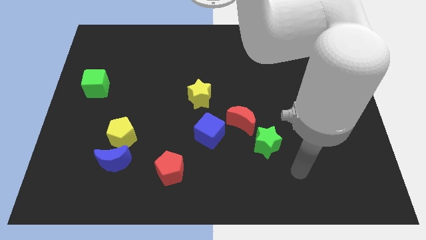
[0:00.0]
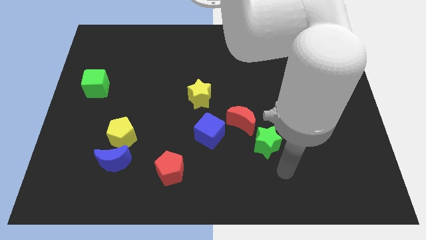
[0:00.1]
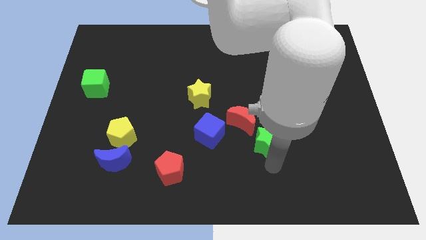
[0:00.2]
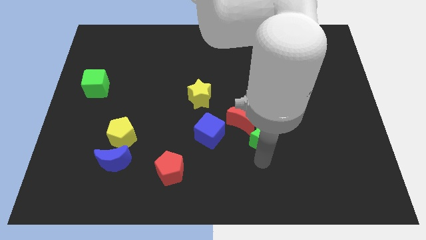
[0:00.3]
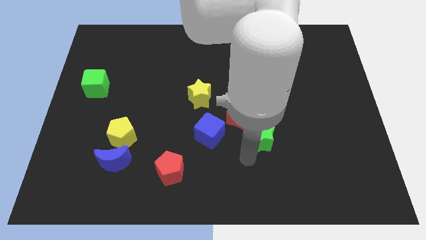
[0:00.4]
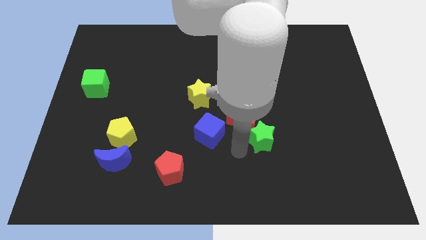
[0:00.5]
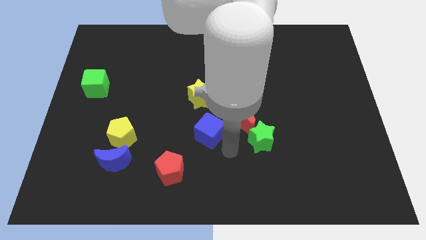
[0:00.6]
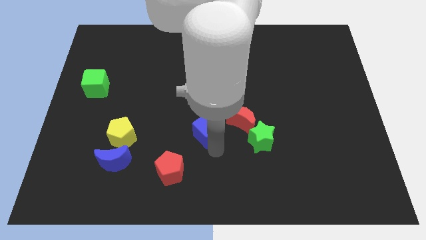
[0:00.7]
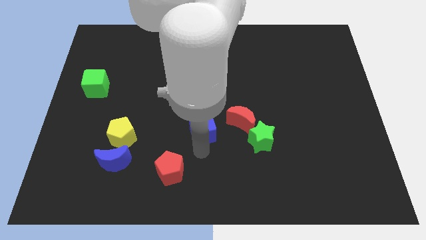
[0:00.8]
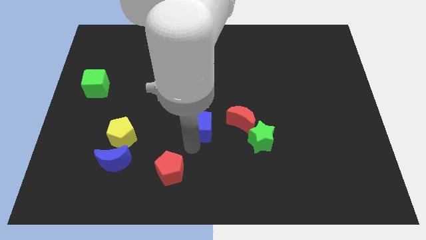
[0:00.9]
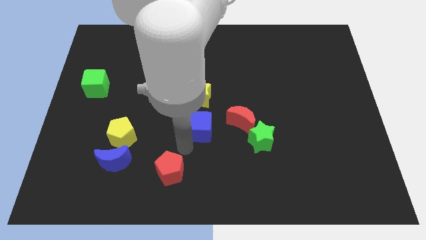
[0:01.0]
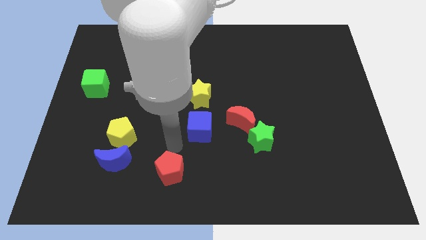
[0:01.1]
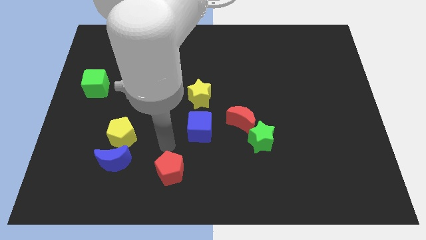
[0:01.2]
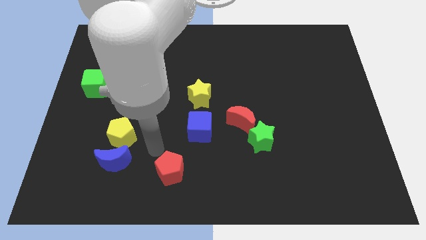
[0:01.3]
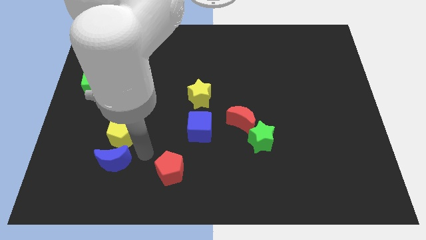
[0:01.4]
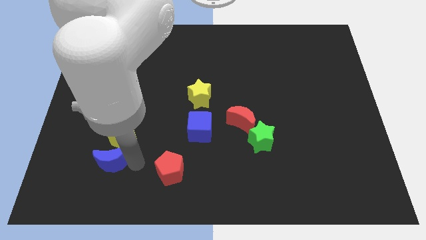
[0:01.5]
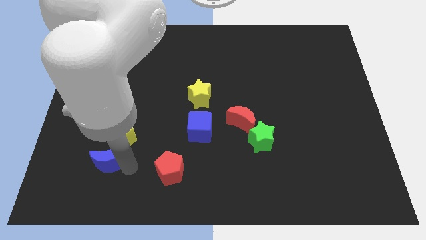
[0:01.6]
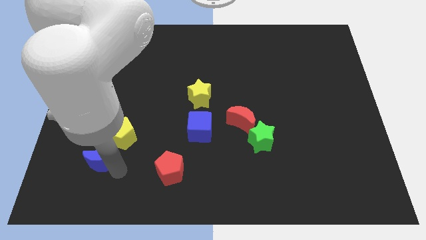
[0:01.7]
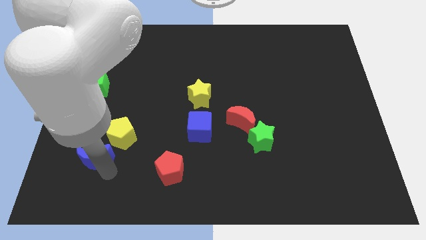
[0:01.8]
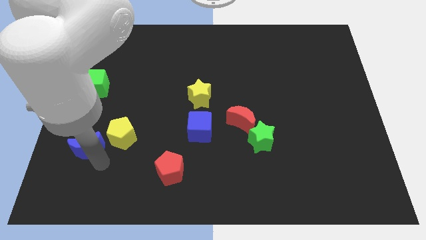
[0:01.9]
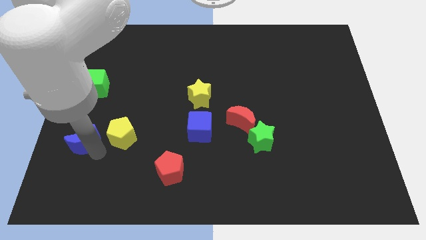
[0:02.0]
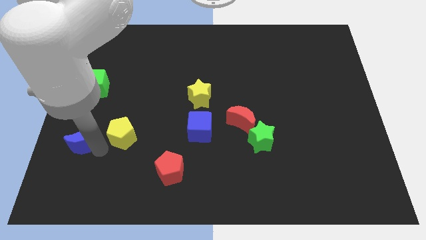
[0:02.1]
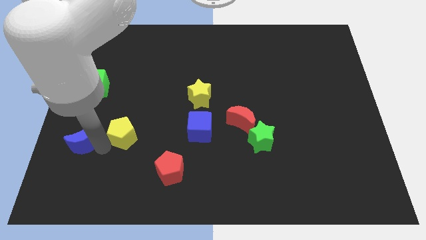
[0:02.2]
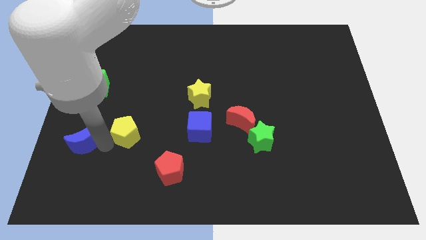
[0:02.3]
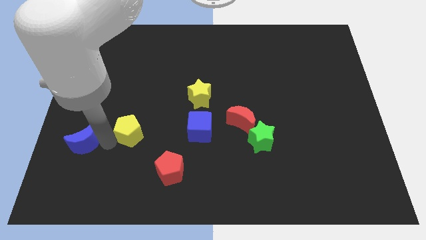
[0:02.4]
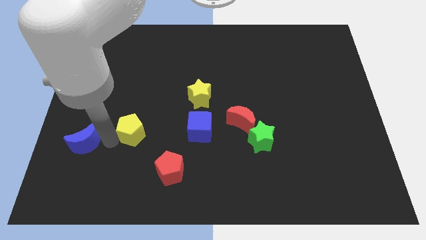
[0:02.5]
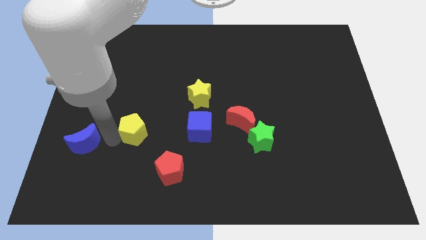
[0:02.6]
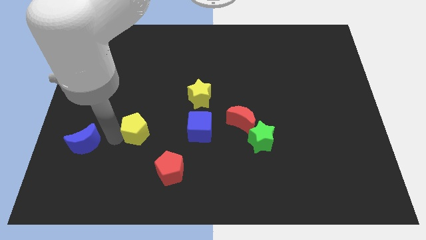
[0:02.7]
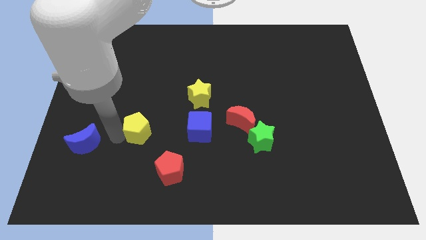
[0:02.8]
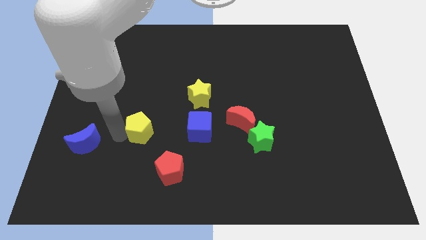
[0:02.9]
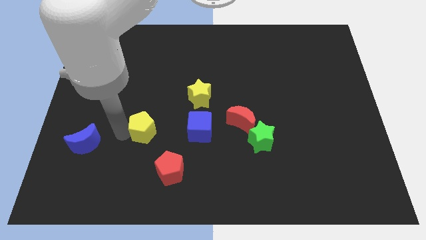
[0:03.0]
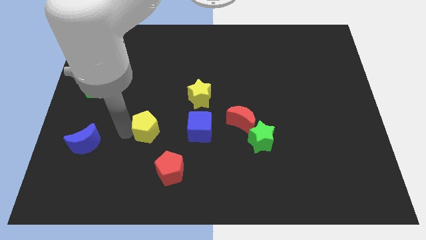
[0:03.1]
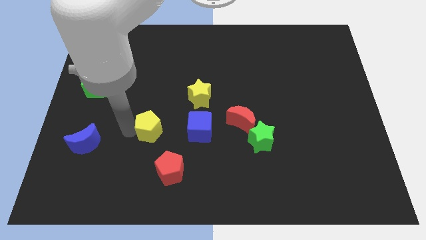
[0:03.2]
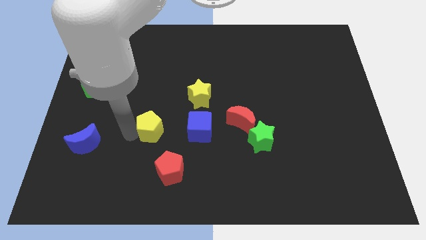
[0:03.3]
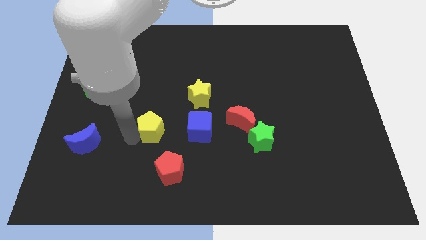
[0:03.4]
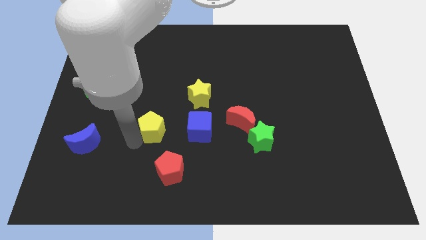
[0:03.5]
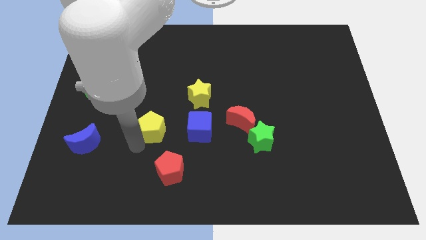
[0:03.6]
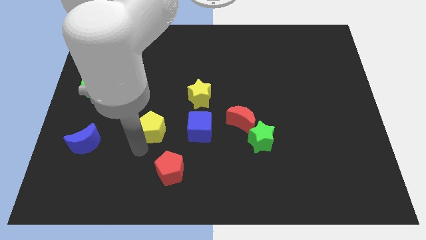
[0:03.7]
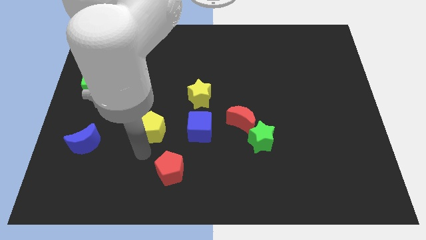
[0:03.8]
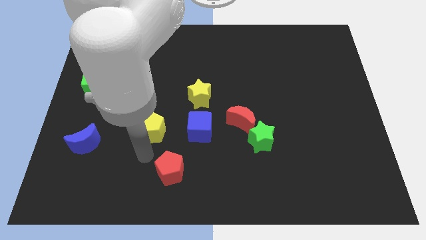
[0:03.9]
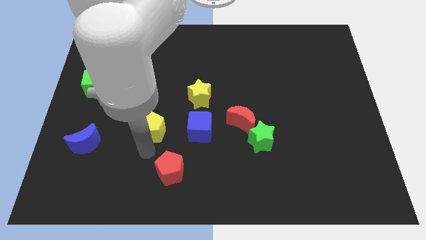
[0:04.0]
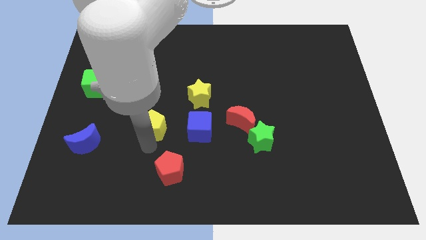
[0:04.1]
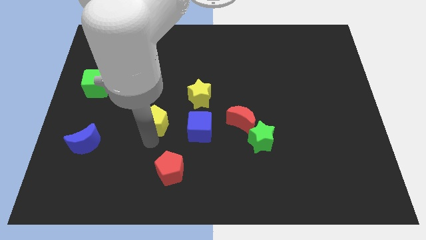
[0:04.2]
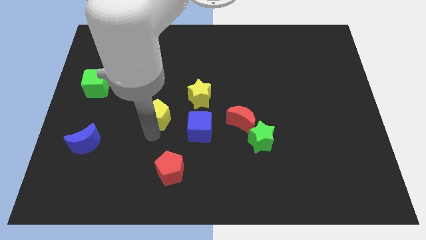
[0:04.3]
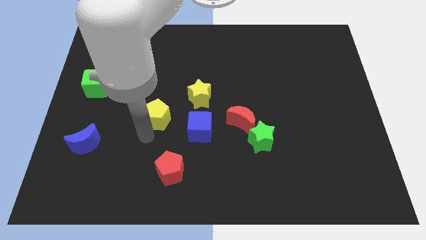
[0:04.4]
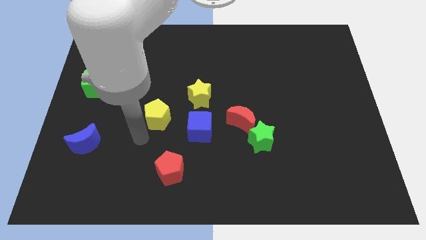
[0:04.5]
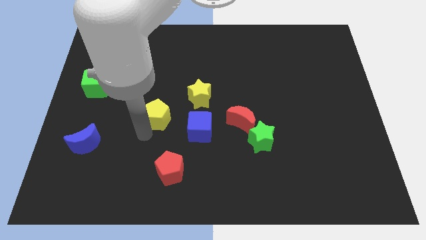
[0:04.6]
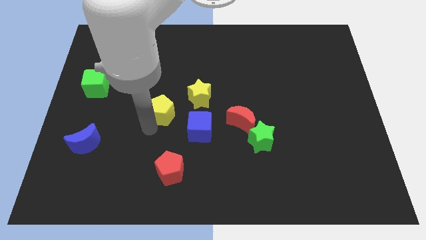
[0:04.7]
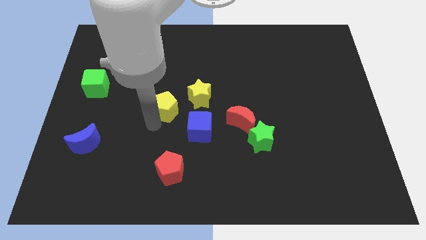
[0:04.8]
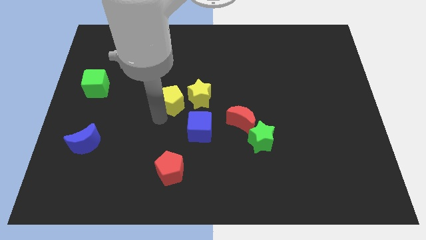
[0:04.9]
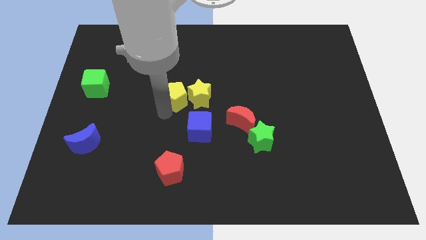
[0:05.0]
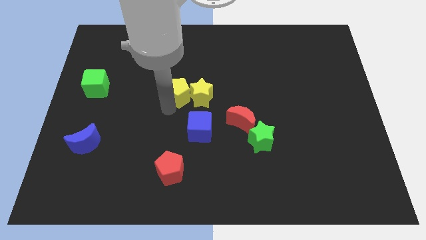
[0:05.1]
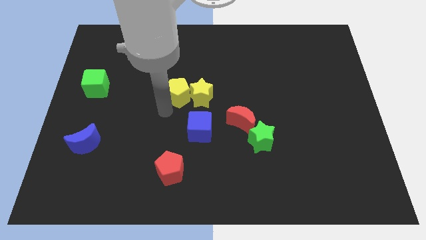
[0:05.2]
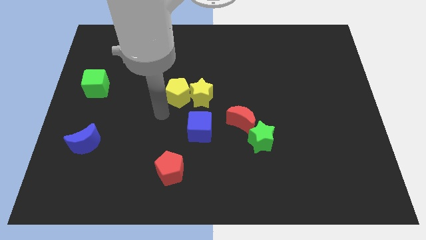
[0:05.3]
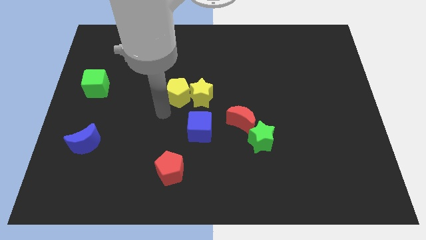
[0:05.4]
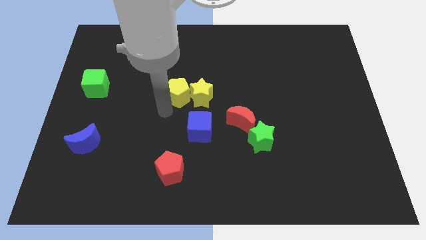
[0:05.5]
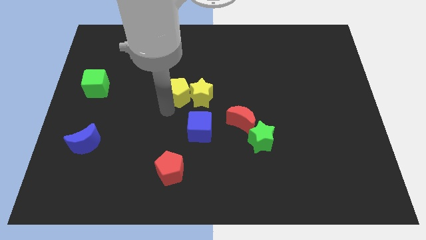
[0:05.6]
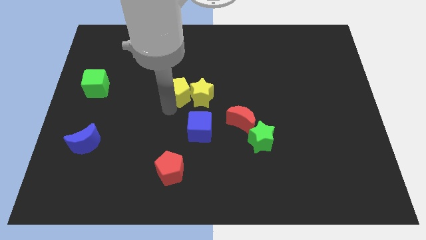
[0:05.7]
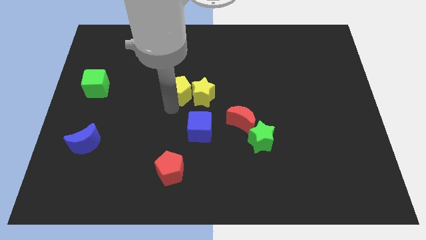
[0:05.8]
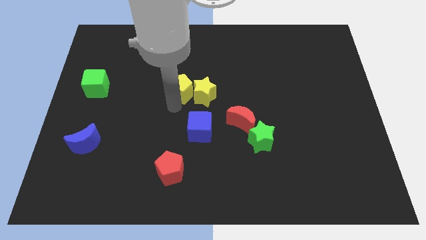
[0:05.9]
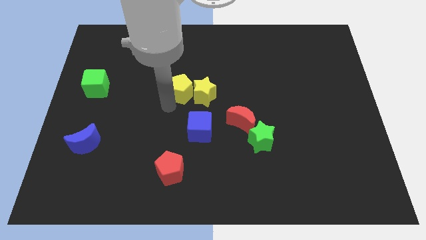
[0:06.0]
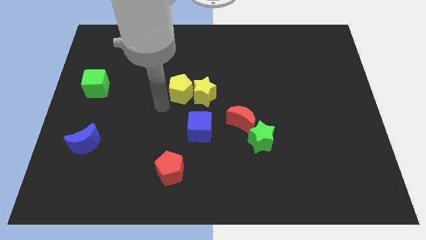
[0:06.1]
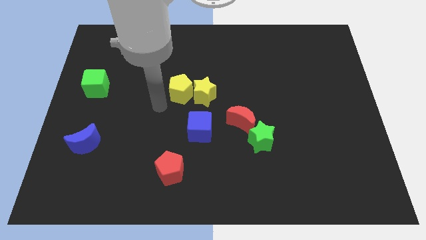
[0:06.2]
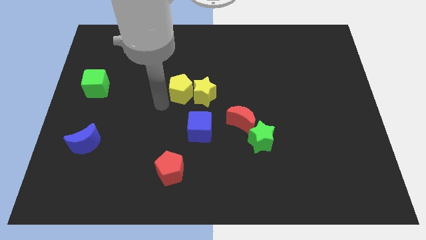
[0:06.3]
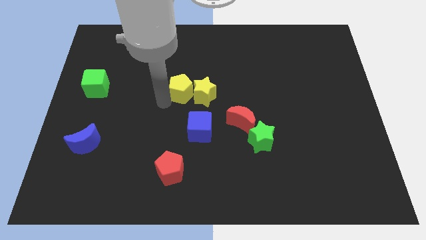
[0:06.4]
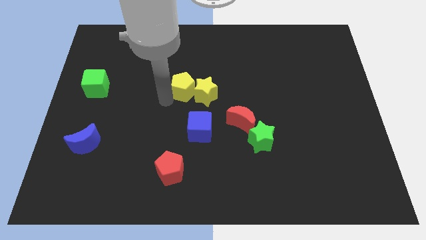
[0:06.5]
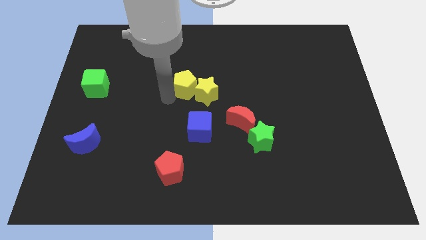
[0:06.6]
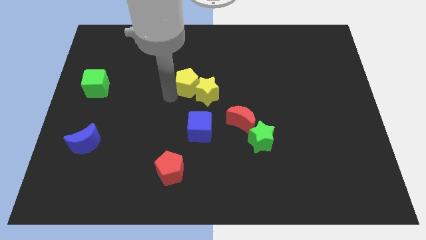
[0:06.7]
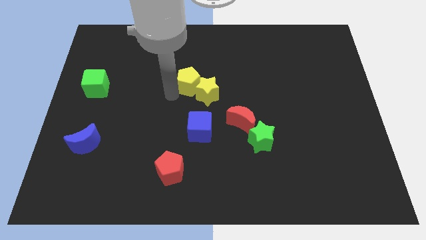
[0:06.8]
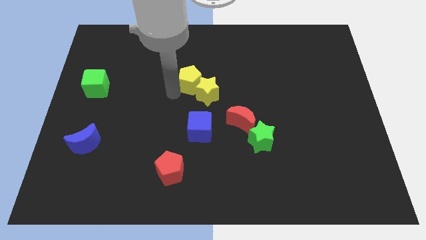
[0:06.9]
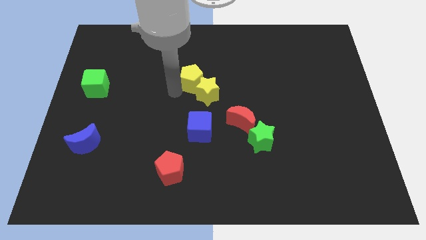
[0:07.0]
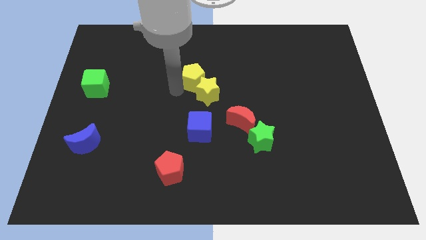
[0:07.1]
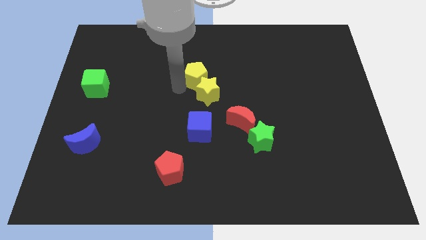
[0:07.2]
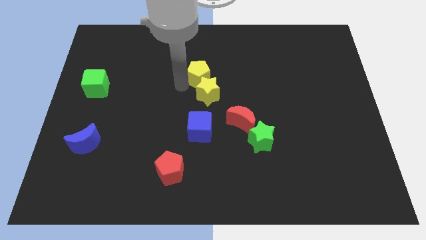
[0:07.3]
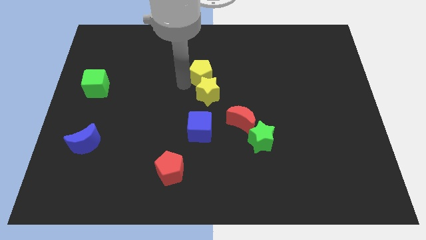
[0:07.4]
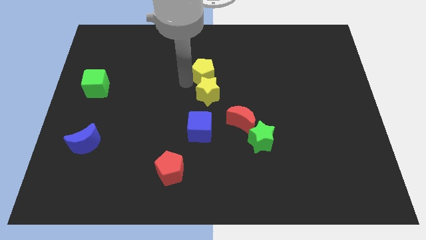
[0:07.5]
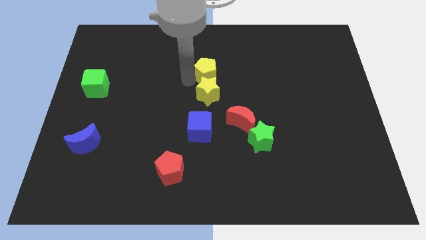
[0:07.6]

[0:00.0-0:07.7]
slide the yellow pentagon diagonally up and to the right of the yellow star
